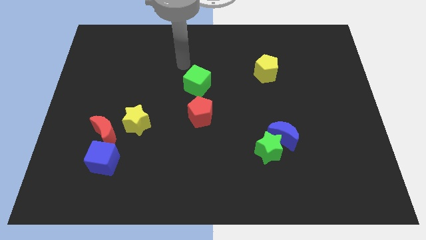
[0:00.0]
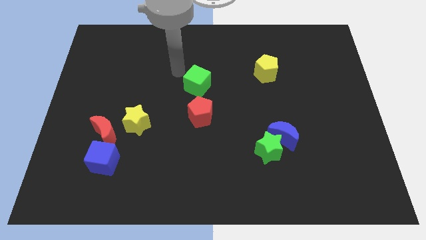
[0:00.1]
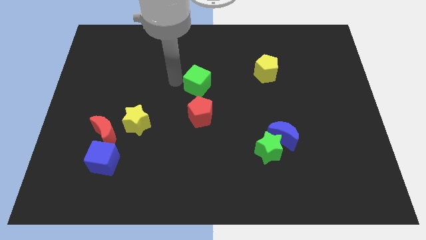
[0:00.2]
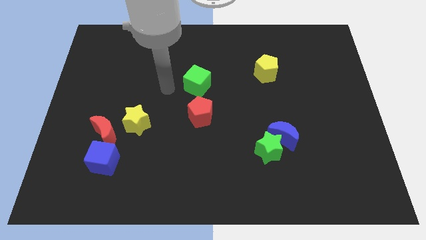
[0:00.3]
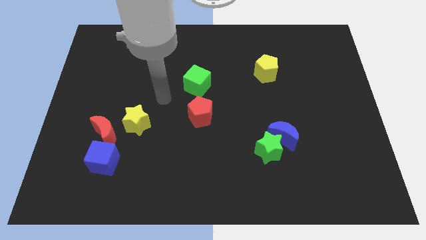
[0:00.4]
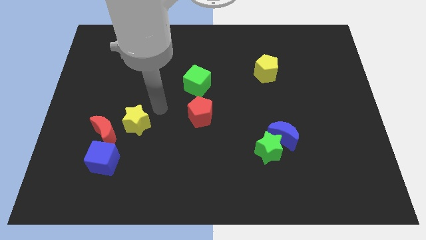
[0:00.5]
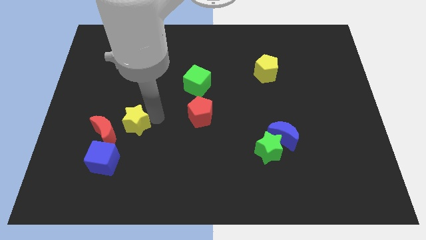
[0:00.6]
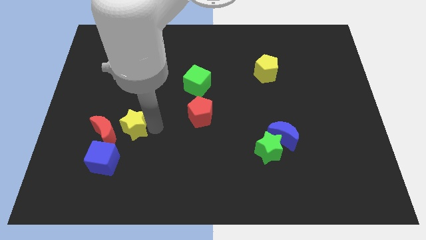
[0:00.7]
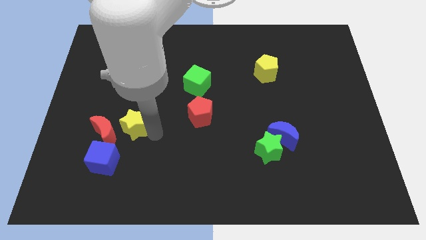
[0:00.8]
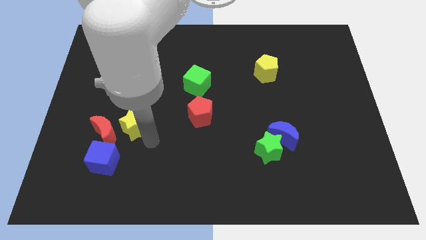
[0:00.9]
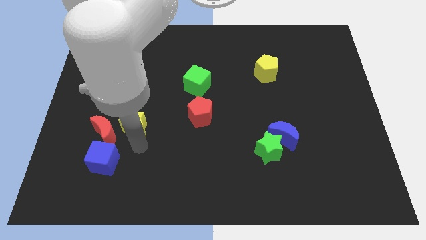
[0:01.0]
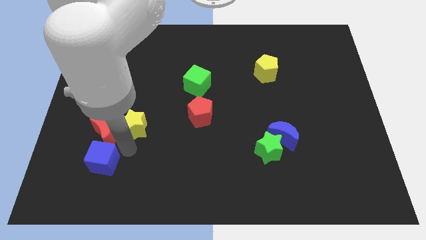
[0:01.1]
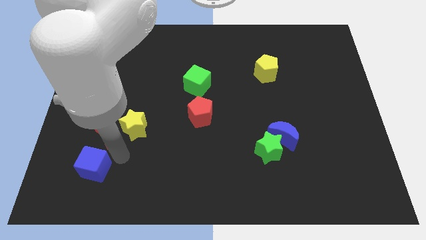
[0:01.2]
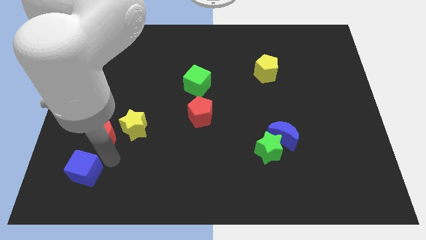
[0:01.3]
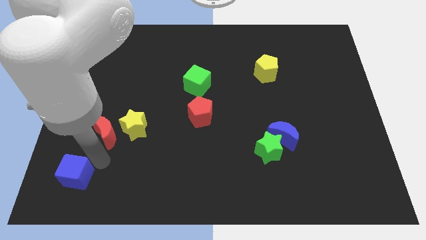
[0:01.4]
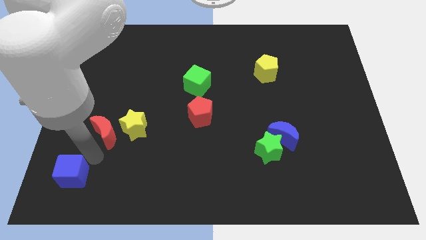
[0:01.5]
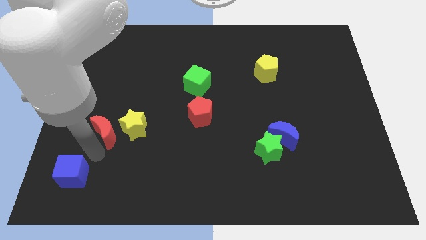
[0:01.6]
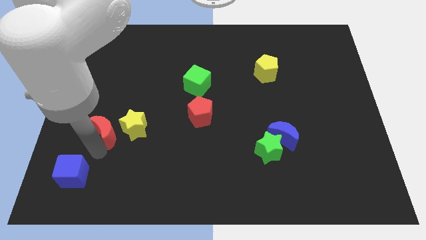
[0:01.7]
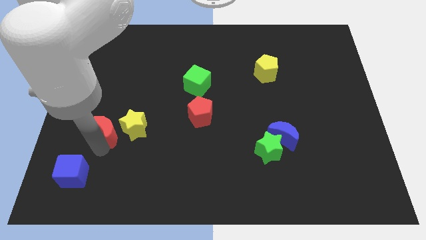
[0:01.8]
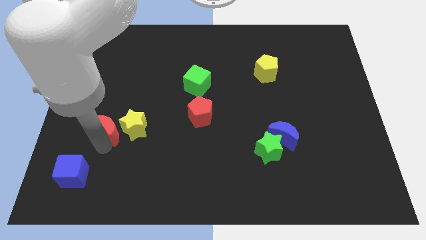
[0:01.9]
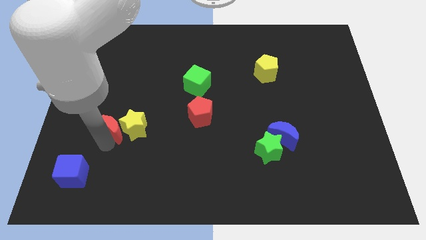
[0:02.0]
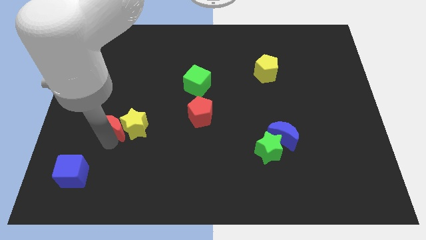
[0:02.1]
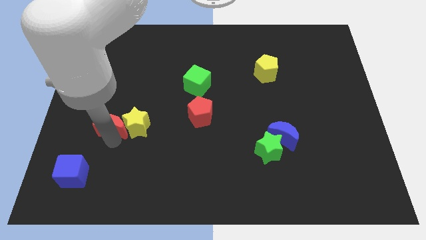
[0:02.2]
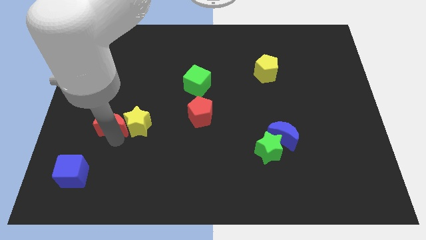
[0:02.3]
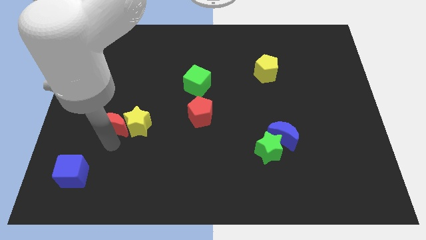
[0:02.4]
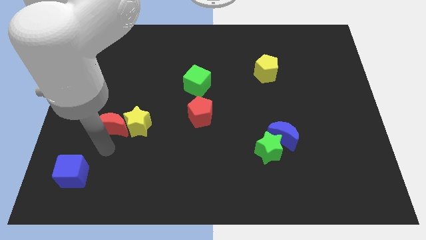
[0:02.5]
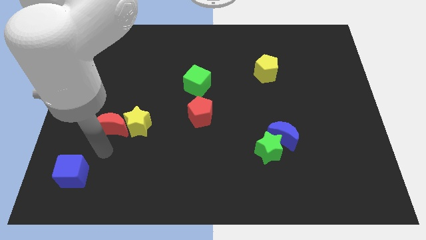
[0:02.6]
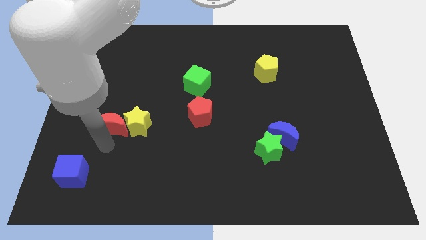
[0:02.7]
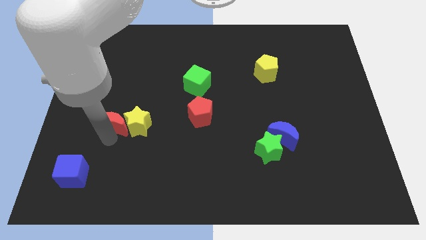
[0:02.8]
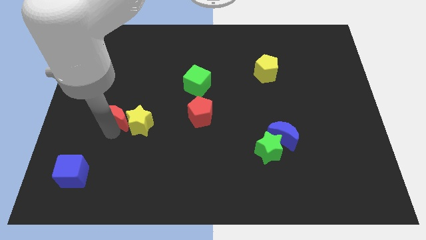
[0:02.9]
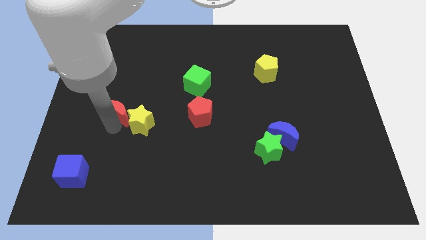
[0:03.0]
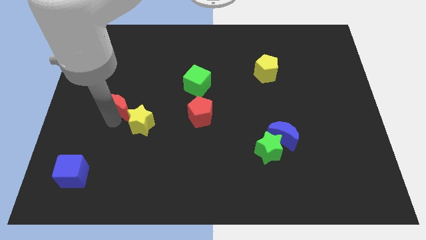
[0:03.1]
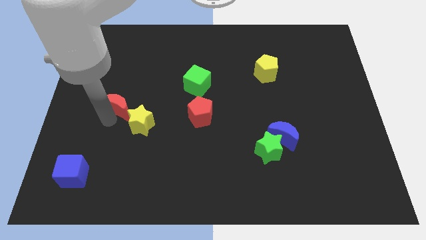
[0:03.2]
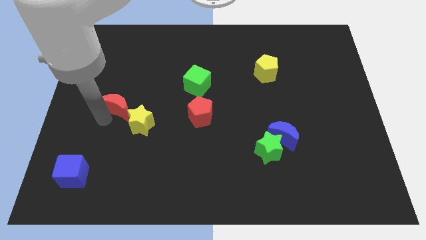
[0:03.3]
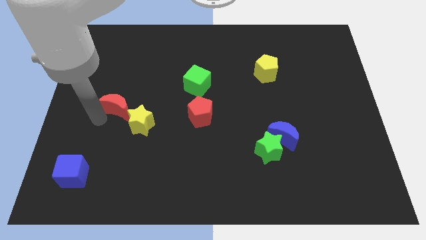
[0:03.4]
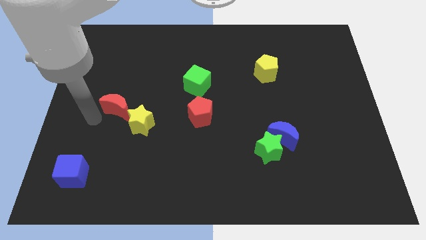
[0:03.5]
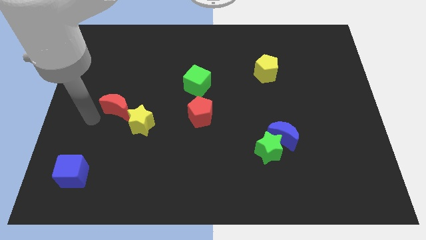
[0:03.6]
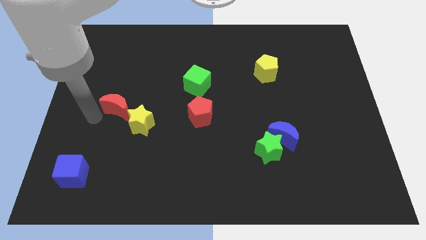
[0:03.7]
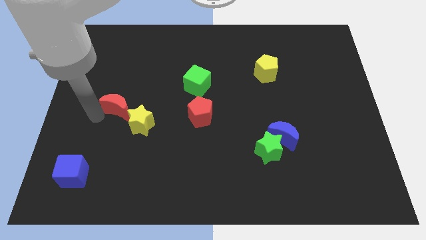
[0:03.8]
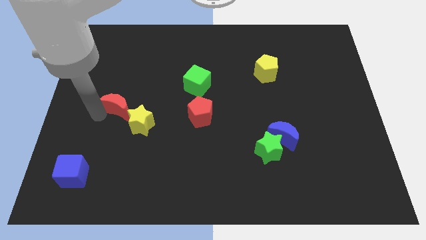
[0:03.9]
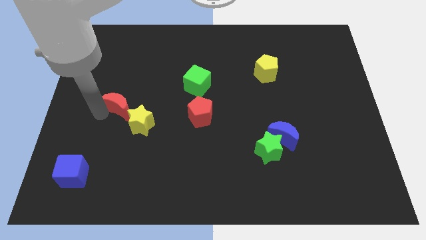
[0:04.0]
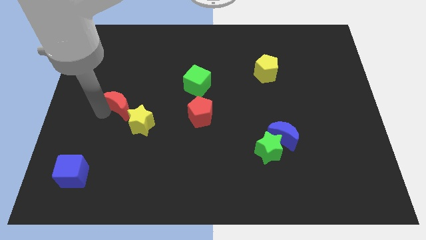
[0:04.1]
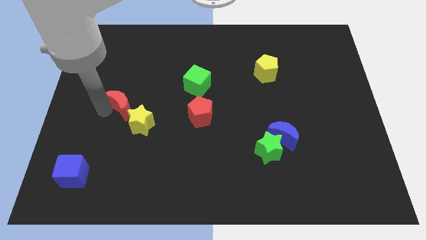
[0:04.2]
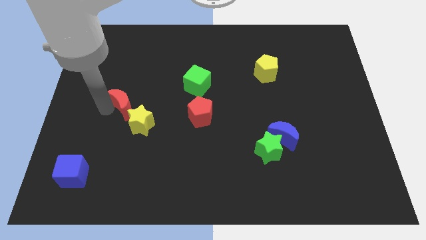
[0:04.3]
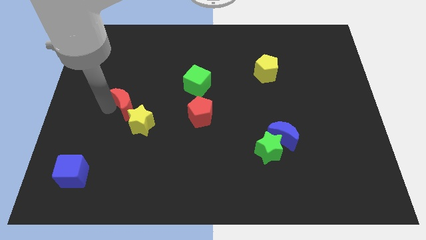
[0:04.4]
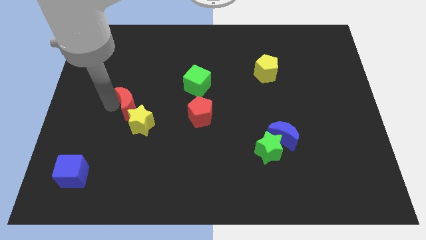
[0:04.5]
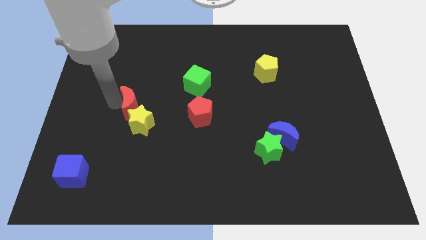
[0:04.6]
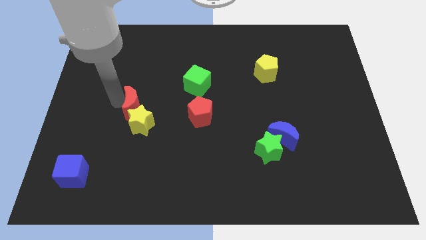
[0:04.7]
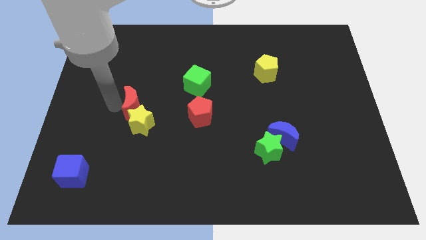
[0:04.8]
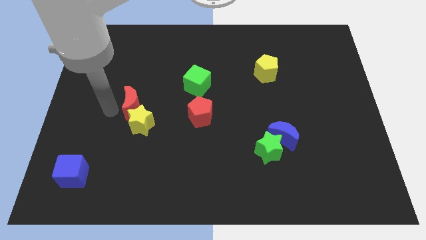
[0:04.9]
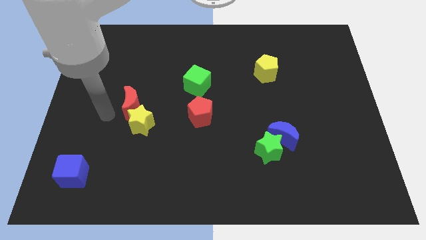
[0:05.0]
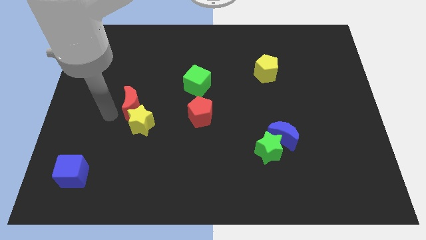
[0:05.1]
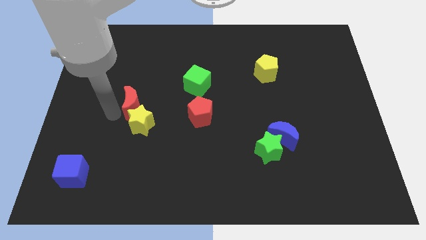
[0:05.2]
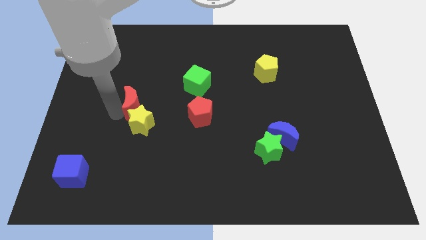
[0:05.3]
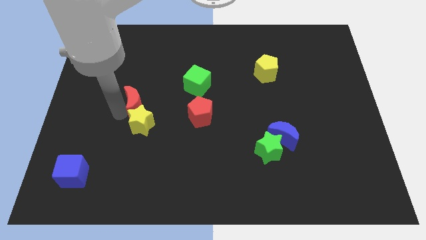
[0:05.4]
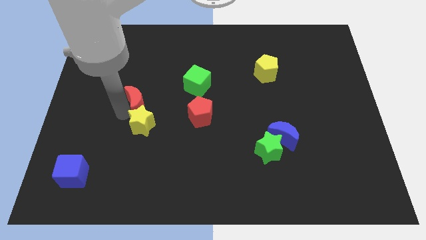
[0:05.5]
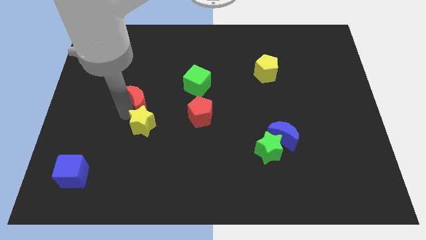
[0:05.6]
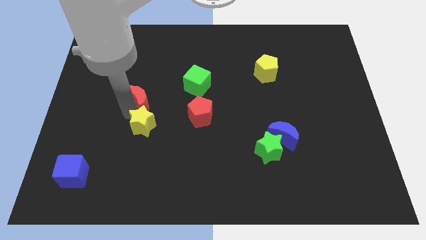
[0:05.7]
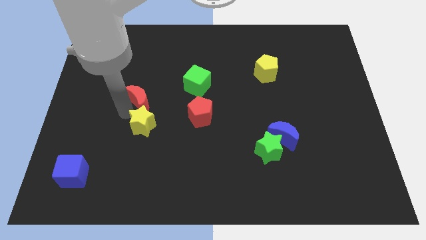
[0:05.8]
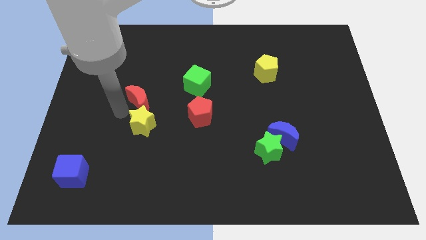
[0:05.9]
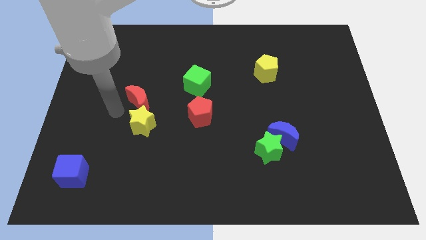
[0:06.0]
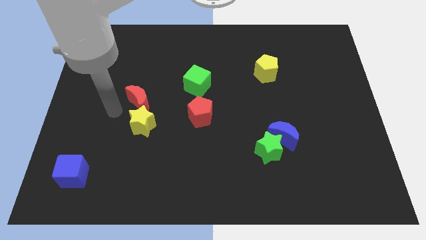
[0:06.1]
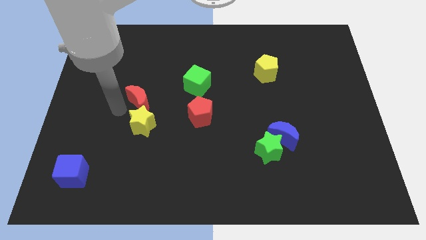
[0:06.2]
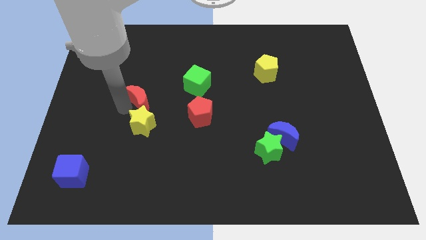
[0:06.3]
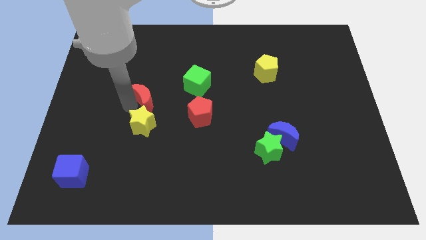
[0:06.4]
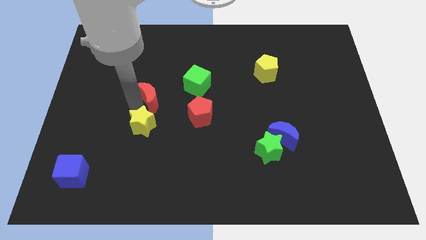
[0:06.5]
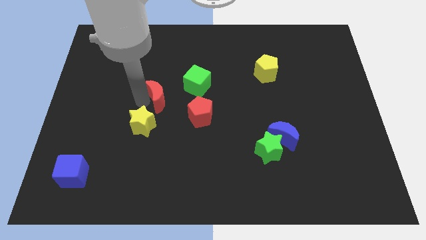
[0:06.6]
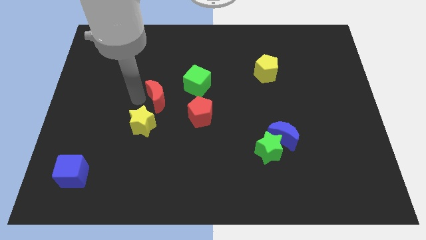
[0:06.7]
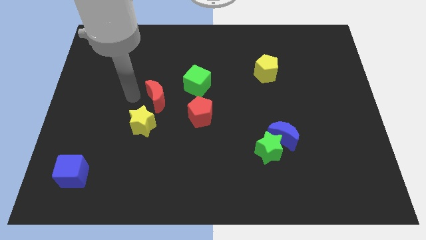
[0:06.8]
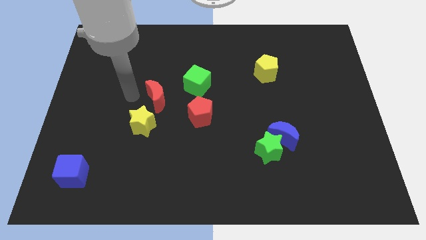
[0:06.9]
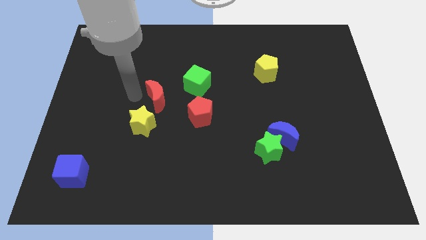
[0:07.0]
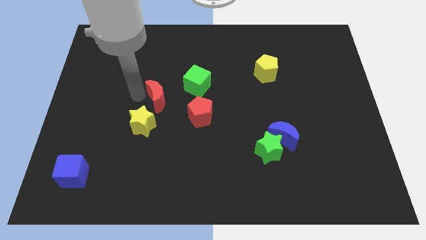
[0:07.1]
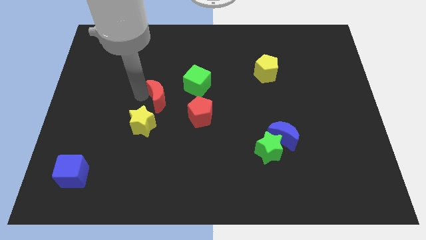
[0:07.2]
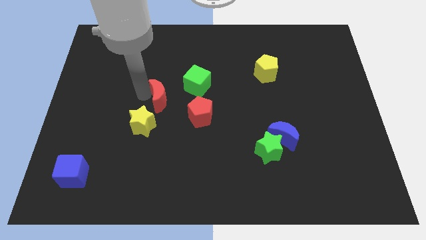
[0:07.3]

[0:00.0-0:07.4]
put the red moon to the middle of the board
